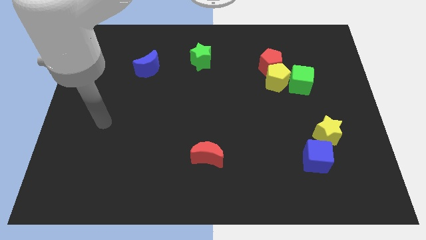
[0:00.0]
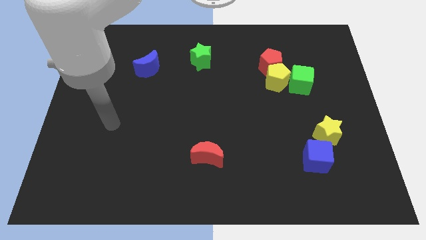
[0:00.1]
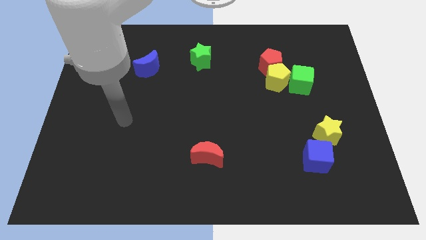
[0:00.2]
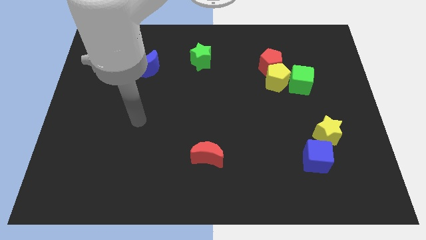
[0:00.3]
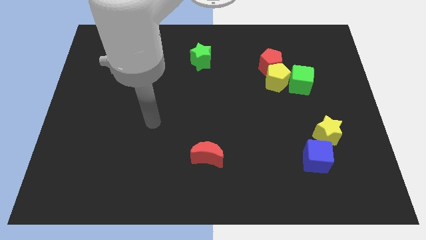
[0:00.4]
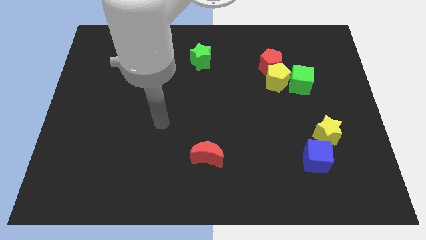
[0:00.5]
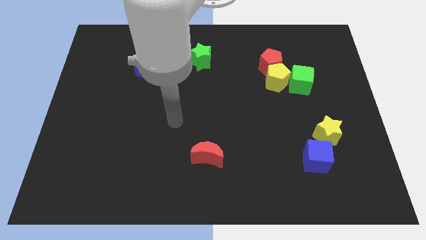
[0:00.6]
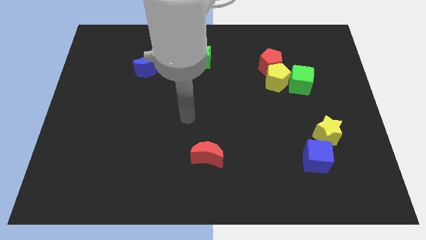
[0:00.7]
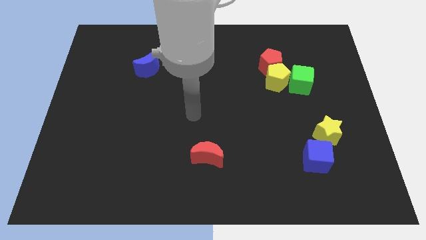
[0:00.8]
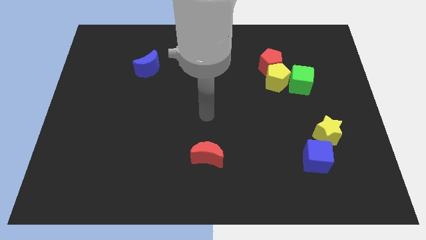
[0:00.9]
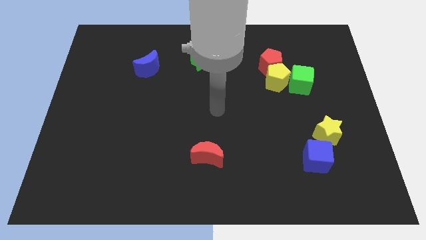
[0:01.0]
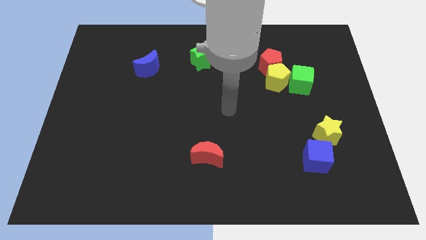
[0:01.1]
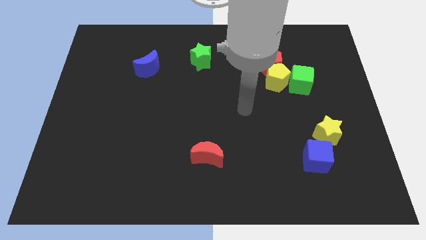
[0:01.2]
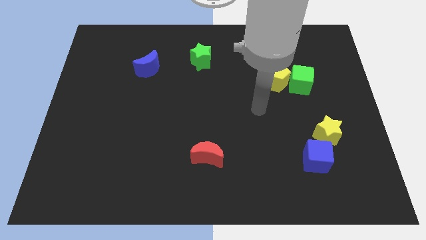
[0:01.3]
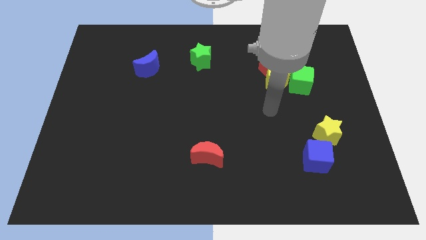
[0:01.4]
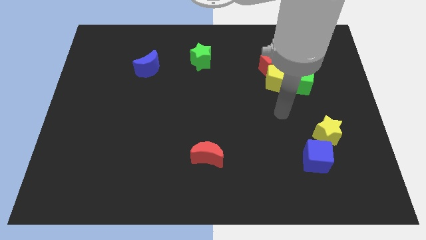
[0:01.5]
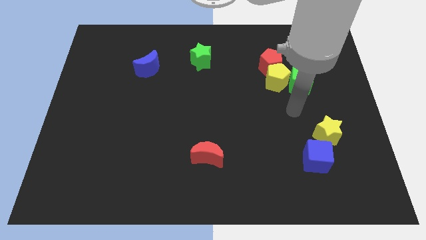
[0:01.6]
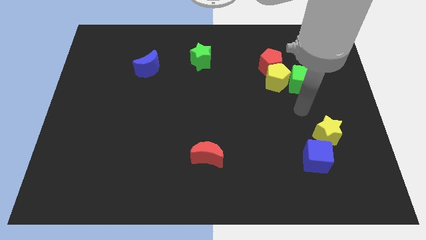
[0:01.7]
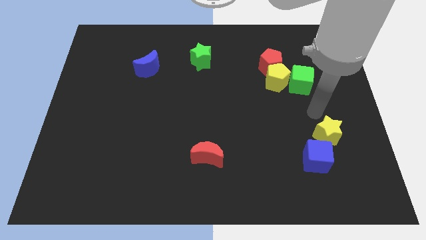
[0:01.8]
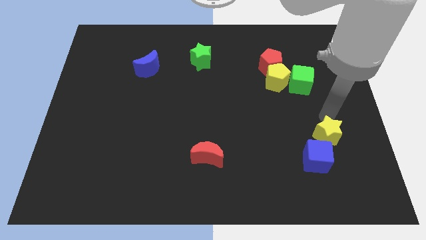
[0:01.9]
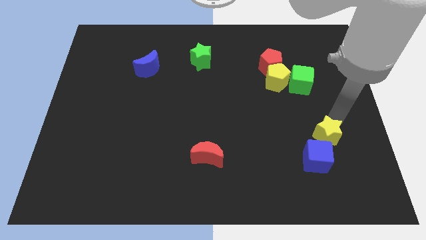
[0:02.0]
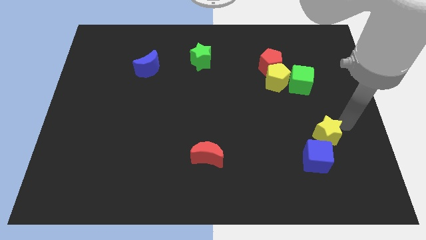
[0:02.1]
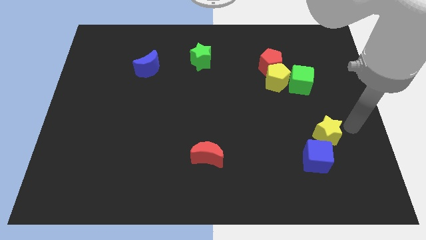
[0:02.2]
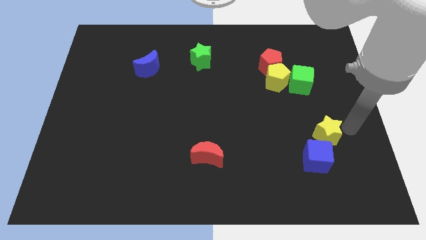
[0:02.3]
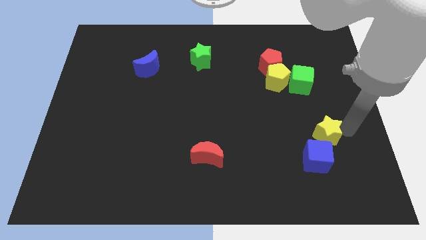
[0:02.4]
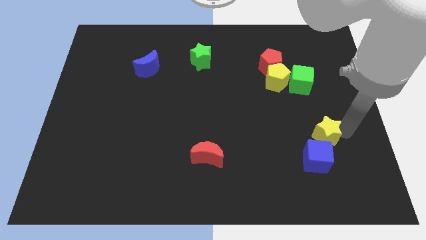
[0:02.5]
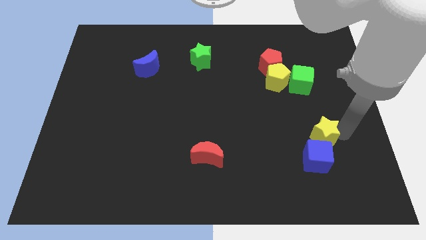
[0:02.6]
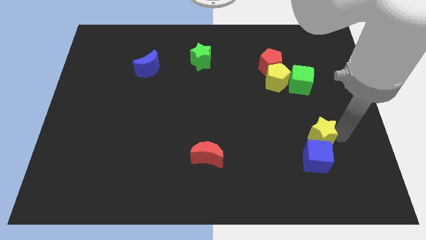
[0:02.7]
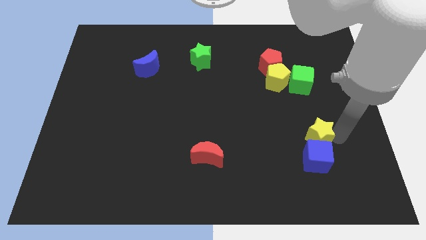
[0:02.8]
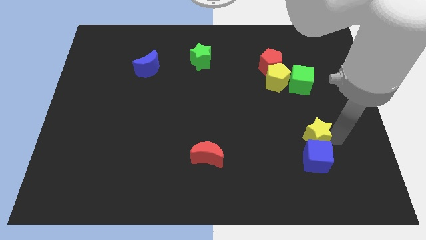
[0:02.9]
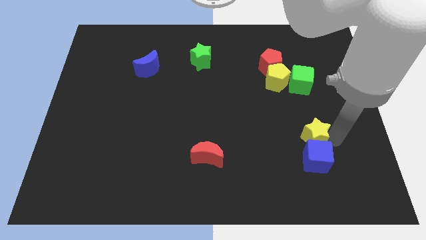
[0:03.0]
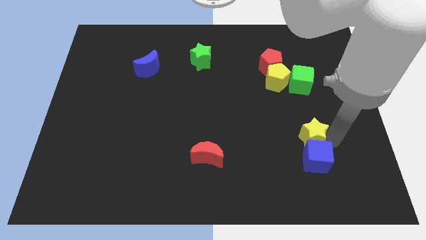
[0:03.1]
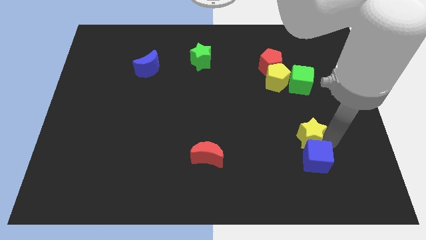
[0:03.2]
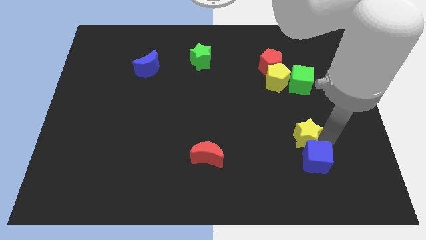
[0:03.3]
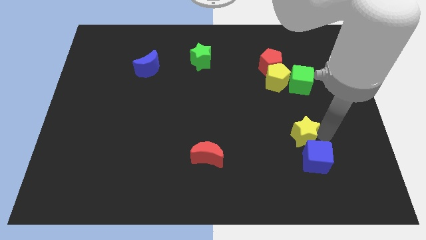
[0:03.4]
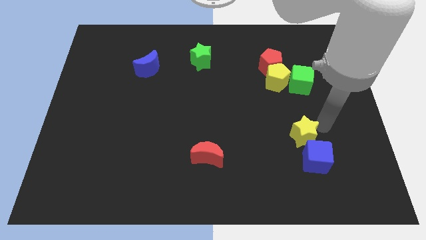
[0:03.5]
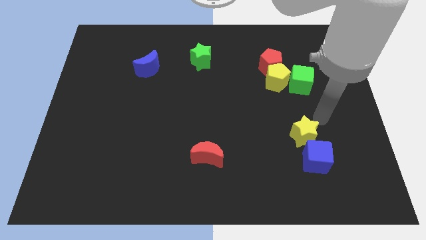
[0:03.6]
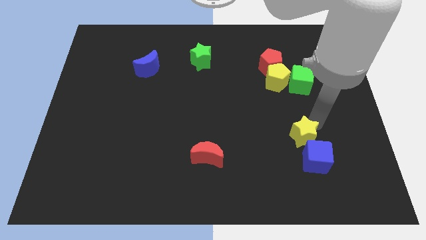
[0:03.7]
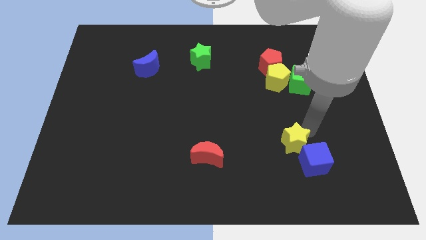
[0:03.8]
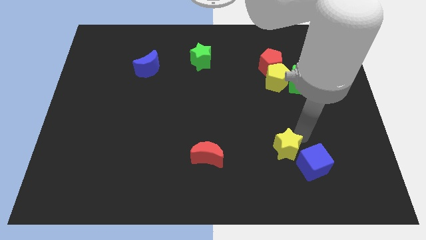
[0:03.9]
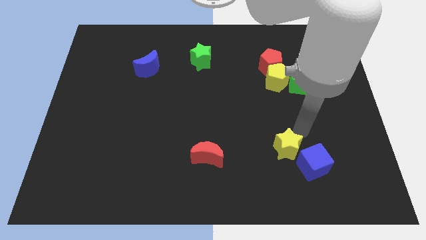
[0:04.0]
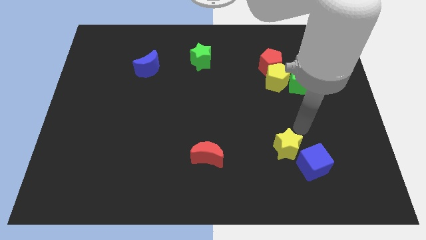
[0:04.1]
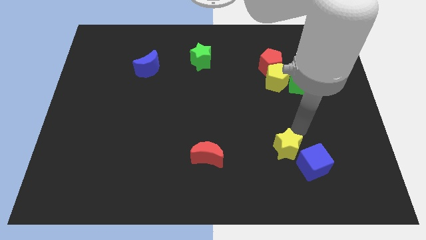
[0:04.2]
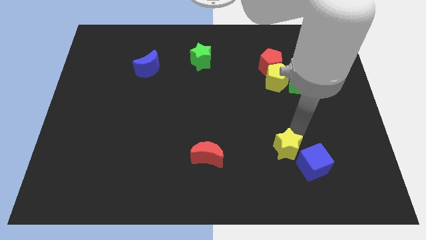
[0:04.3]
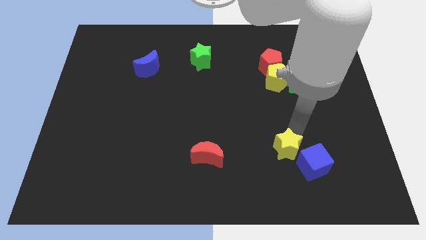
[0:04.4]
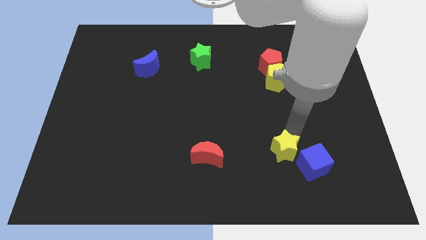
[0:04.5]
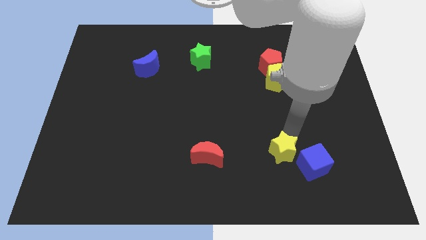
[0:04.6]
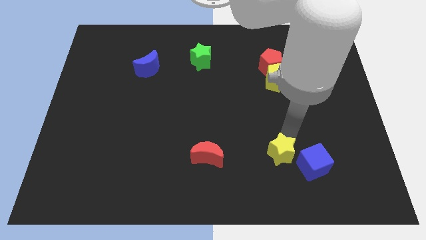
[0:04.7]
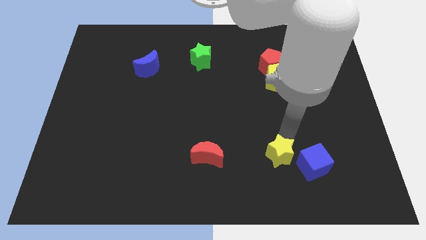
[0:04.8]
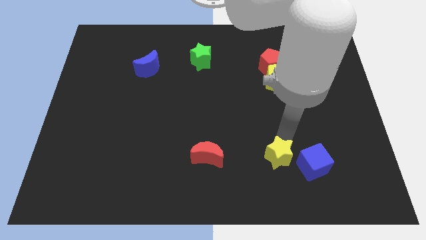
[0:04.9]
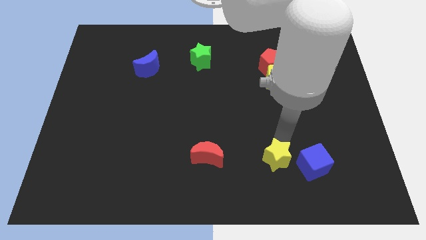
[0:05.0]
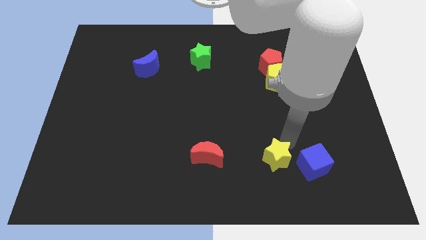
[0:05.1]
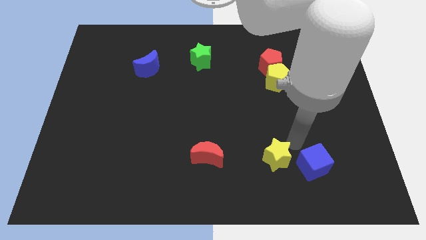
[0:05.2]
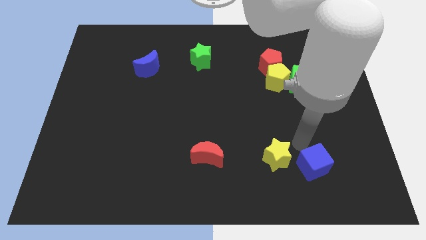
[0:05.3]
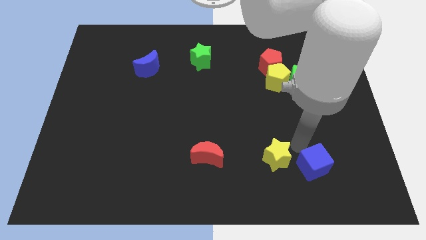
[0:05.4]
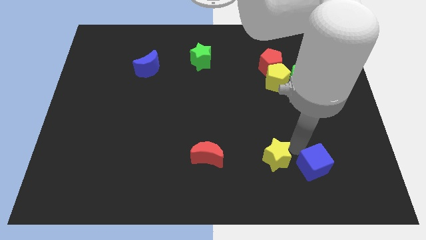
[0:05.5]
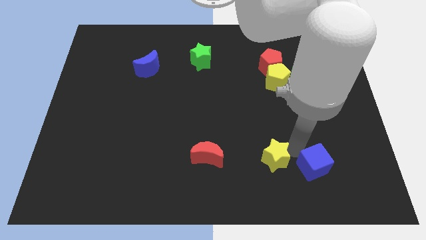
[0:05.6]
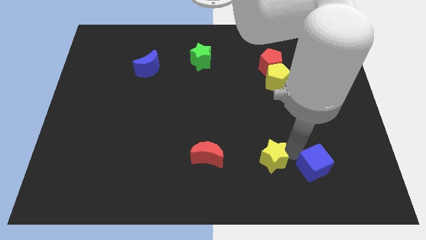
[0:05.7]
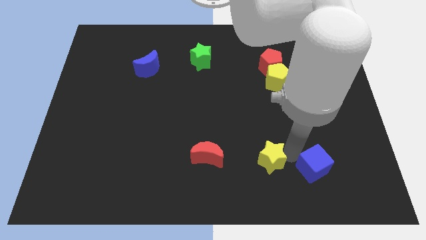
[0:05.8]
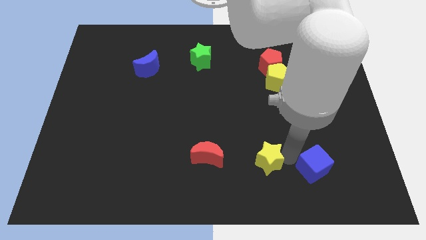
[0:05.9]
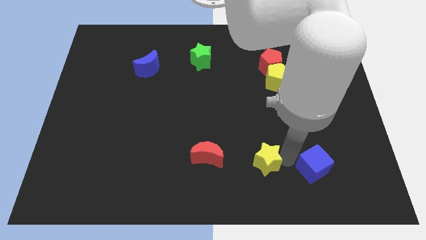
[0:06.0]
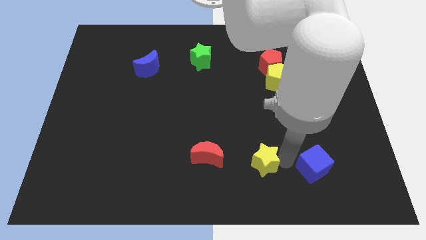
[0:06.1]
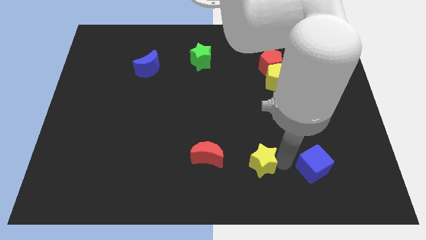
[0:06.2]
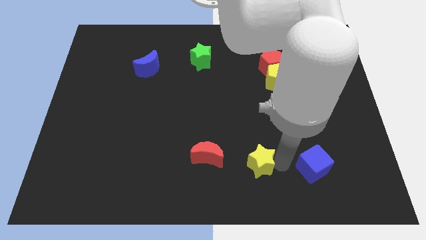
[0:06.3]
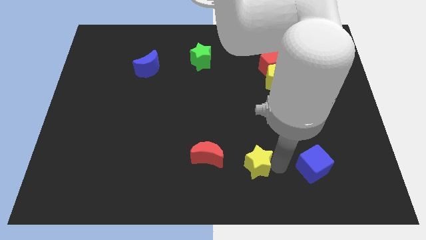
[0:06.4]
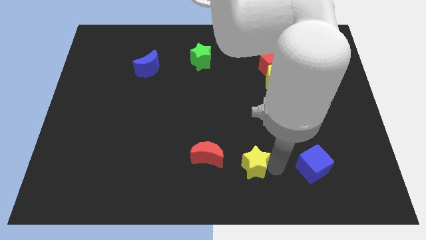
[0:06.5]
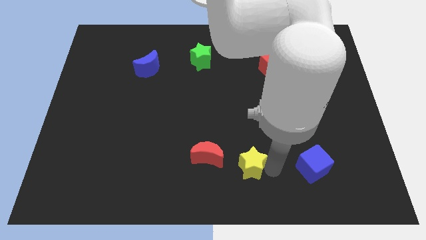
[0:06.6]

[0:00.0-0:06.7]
put the yellow star diagonally down and to the right of the red moon

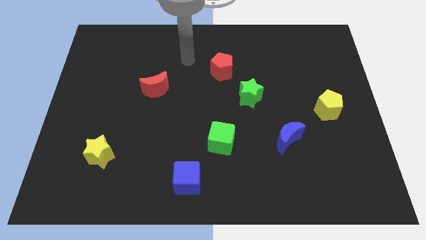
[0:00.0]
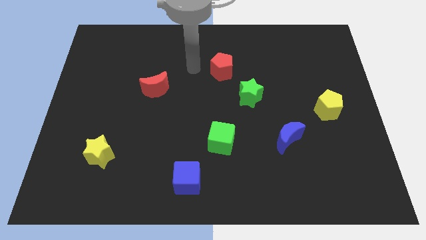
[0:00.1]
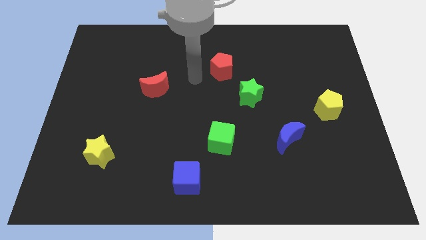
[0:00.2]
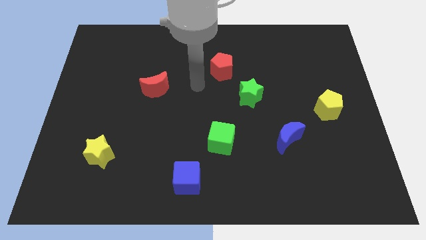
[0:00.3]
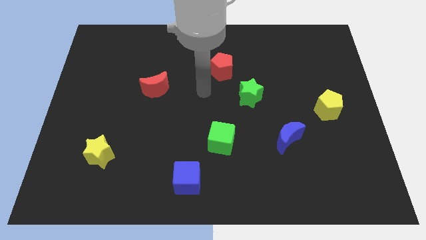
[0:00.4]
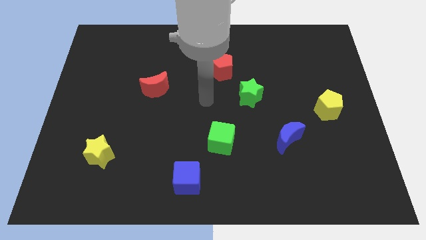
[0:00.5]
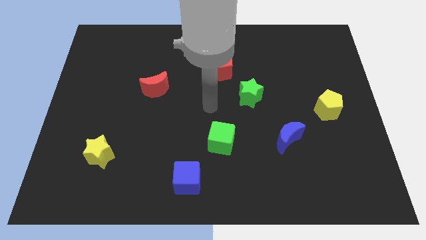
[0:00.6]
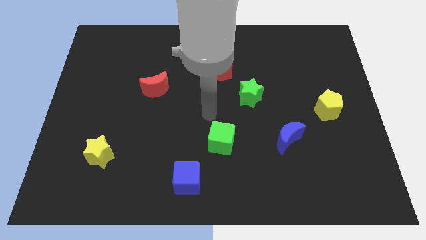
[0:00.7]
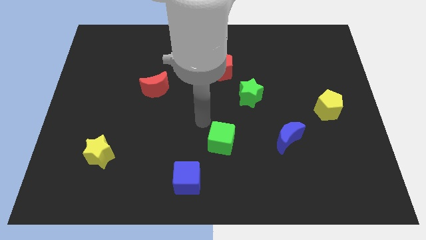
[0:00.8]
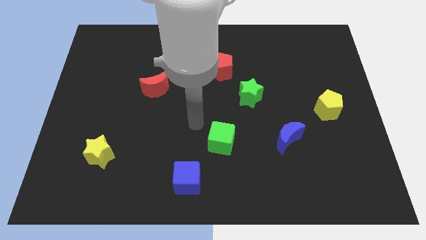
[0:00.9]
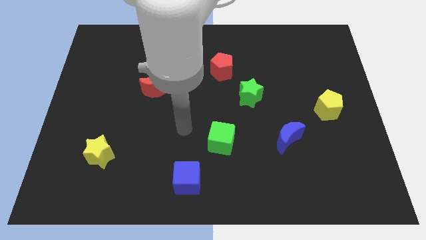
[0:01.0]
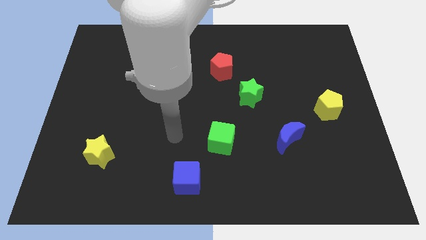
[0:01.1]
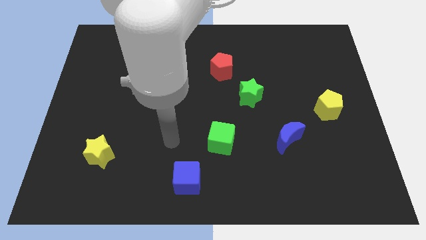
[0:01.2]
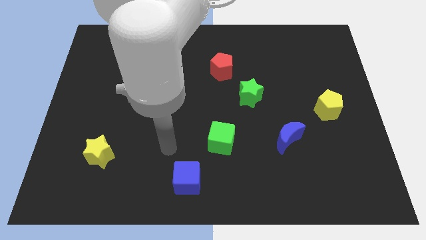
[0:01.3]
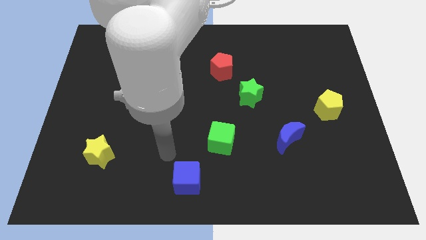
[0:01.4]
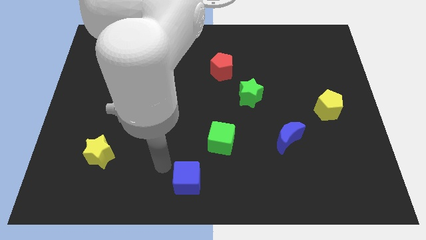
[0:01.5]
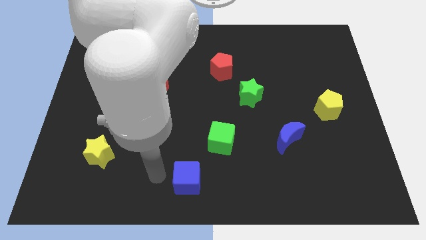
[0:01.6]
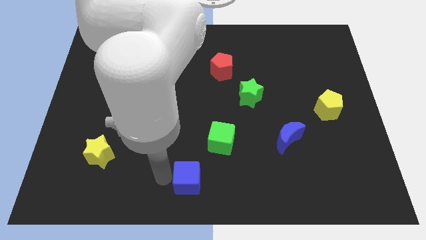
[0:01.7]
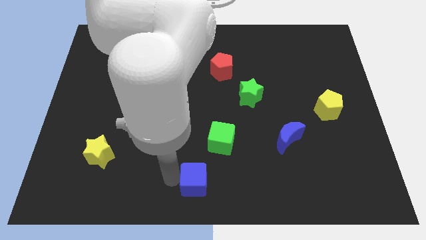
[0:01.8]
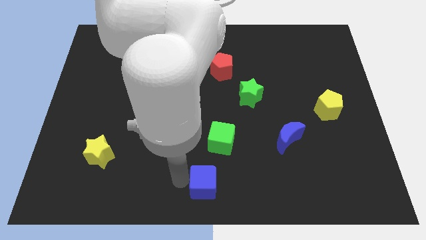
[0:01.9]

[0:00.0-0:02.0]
put the blue cube to the bottom of the green cube
